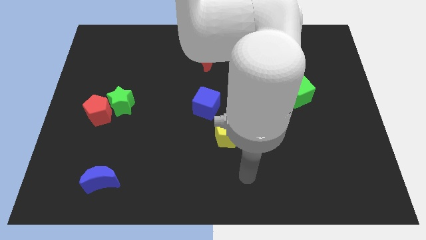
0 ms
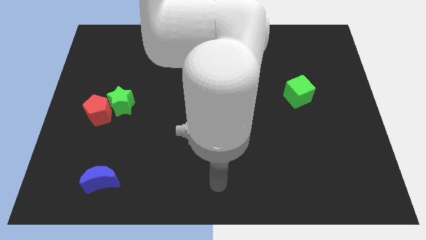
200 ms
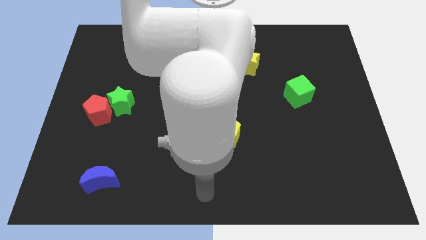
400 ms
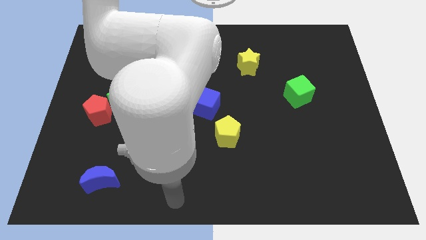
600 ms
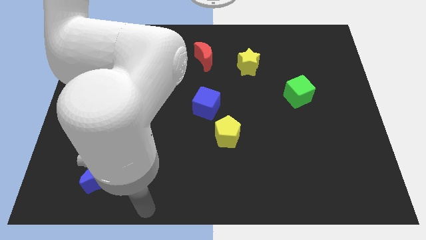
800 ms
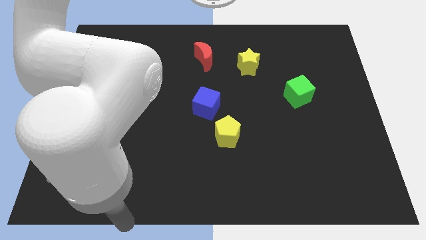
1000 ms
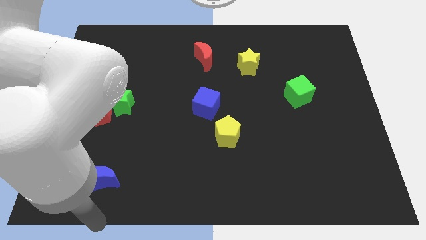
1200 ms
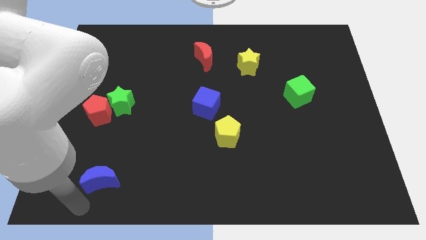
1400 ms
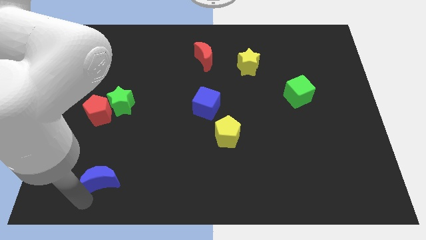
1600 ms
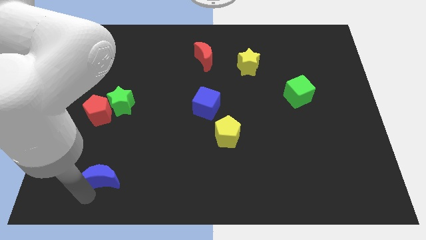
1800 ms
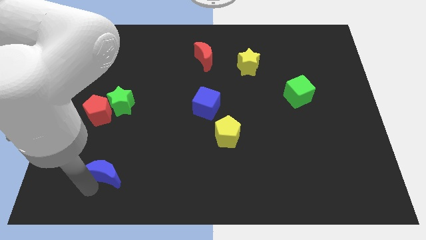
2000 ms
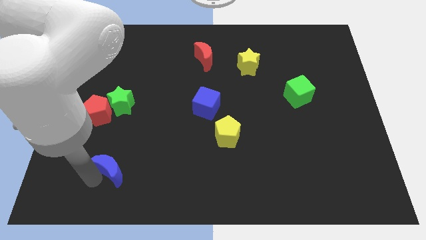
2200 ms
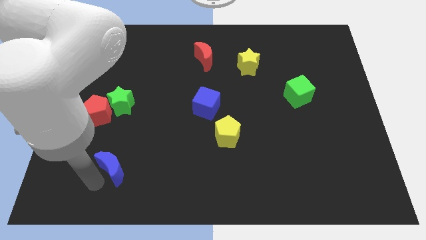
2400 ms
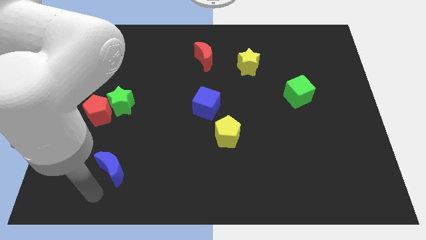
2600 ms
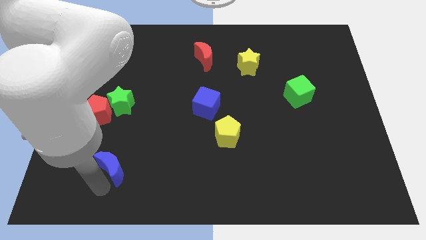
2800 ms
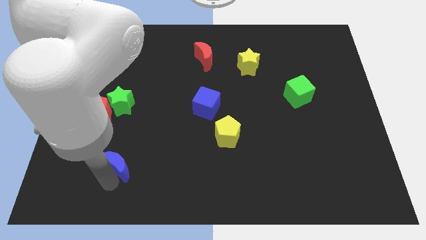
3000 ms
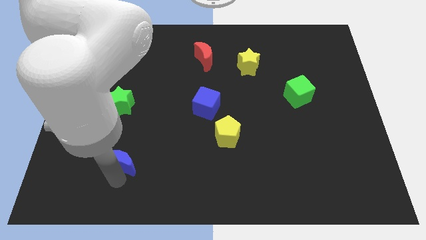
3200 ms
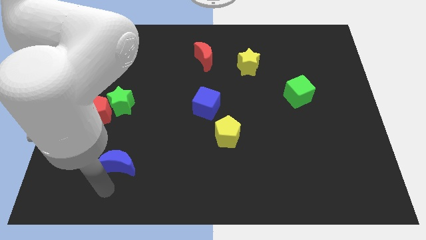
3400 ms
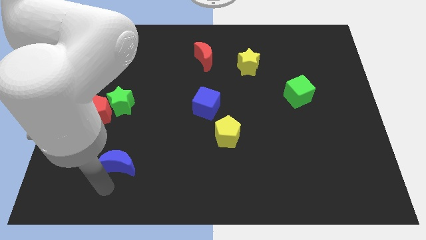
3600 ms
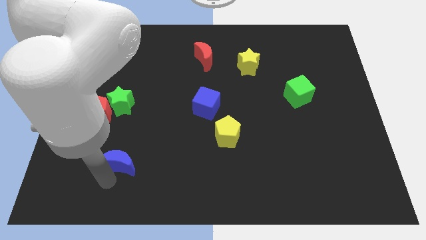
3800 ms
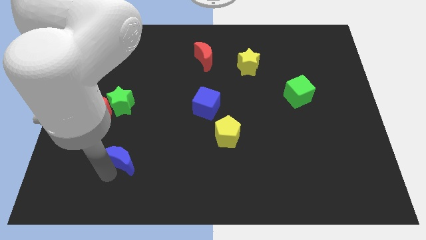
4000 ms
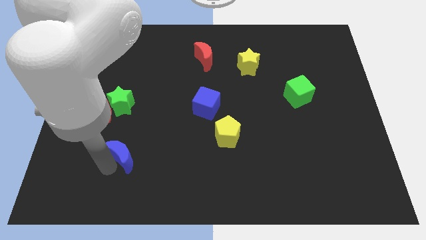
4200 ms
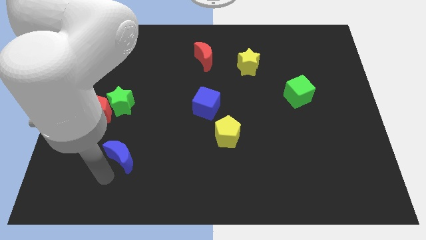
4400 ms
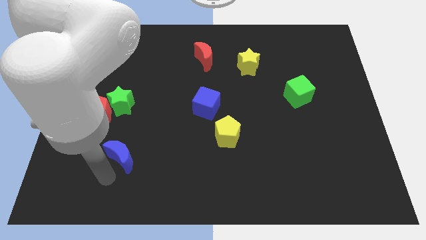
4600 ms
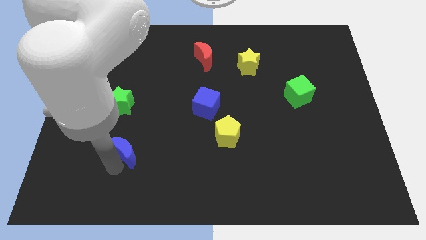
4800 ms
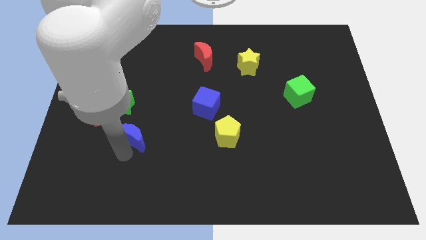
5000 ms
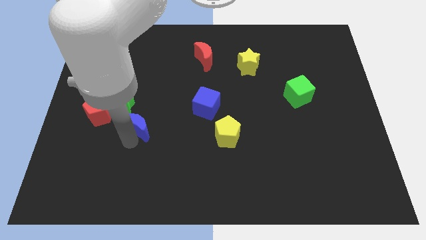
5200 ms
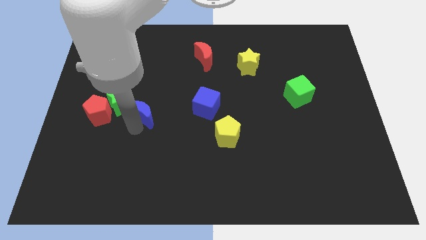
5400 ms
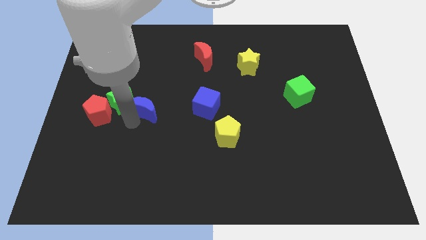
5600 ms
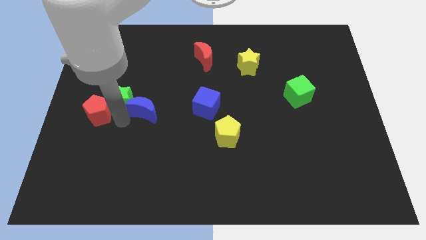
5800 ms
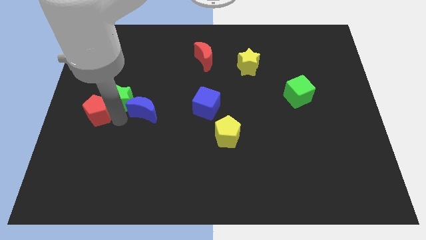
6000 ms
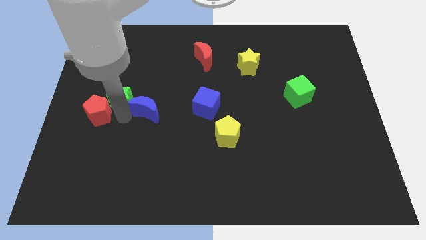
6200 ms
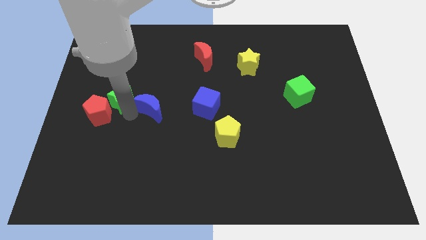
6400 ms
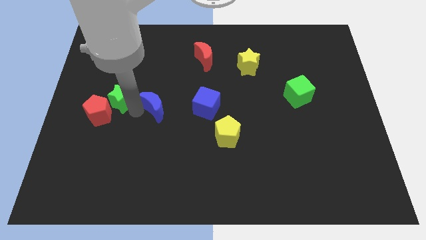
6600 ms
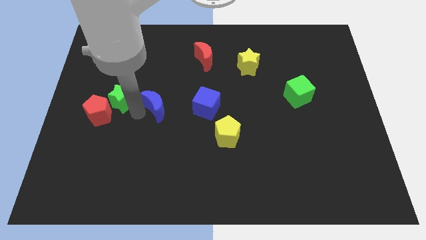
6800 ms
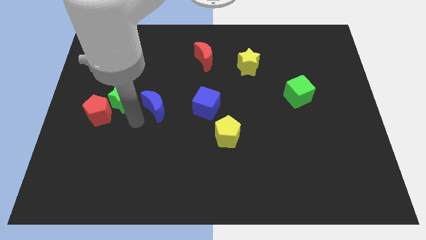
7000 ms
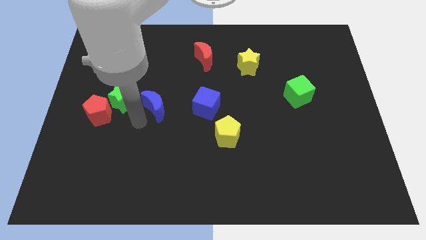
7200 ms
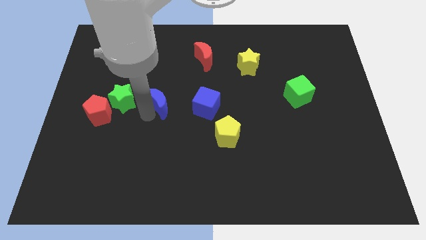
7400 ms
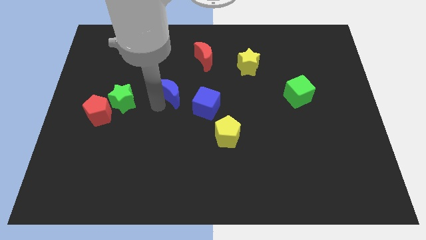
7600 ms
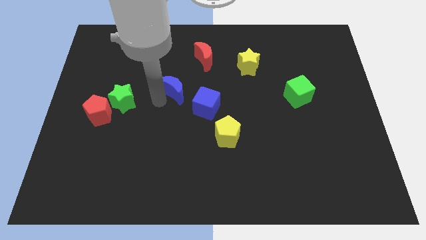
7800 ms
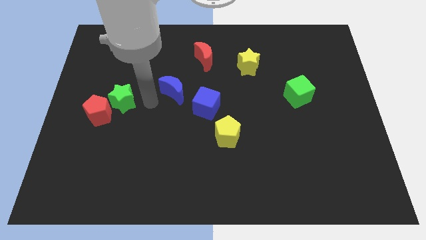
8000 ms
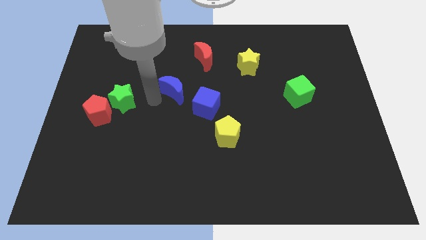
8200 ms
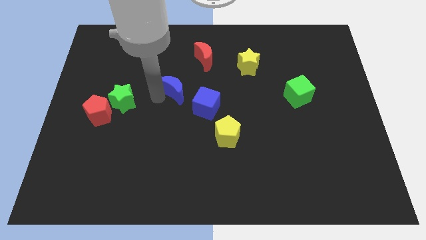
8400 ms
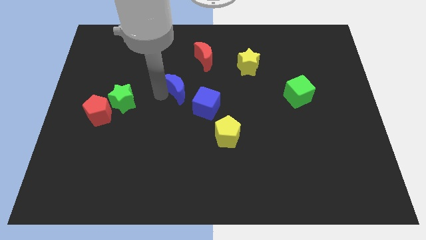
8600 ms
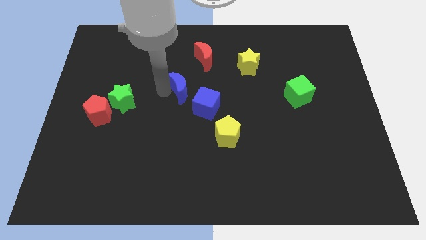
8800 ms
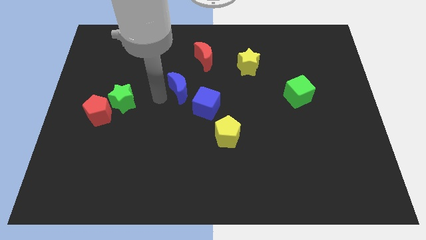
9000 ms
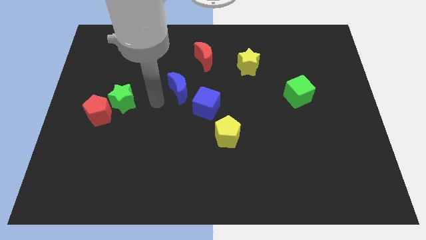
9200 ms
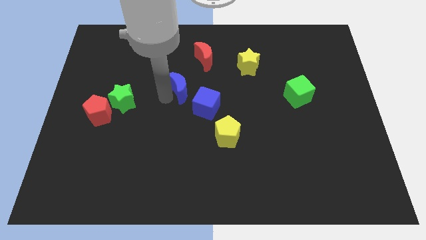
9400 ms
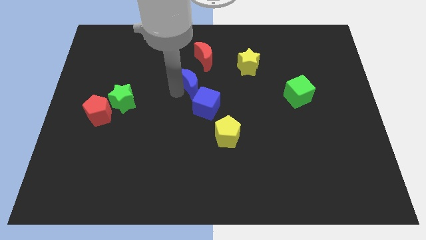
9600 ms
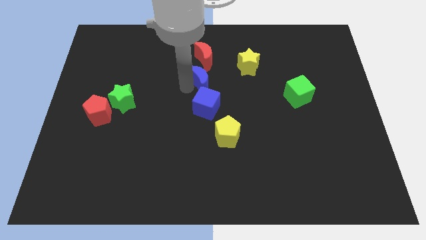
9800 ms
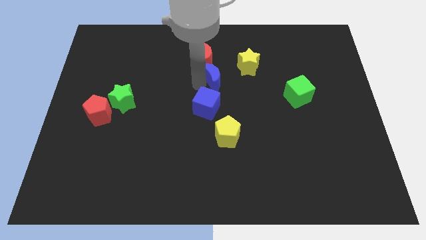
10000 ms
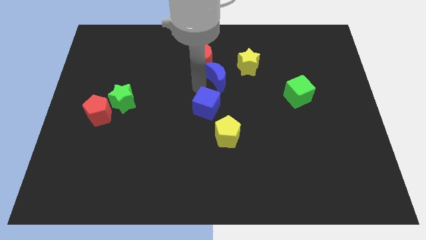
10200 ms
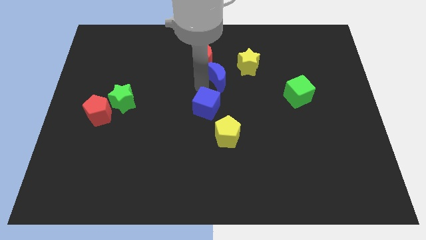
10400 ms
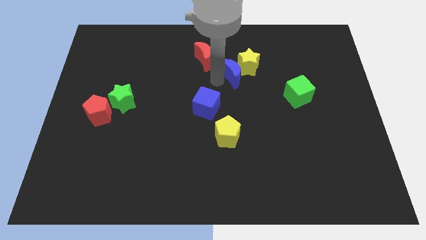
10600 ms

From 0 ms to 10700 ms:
put the blue moon next to the yellow star

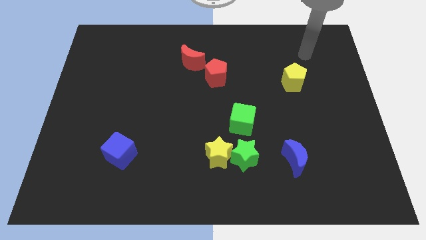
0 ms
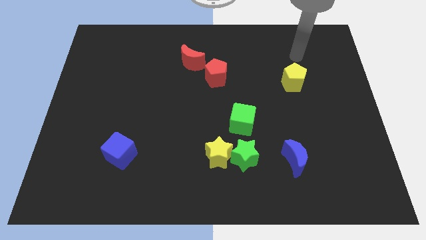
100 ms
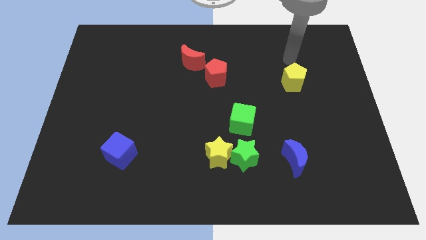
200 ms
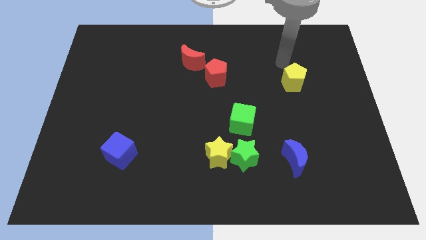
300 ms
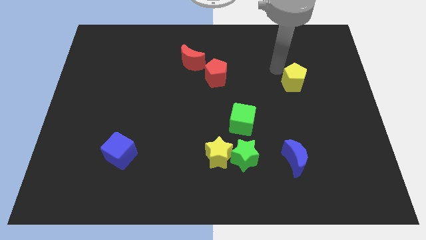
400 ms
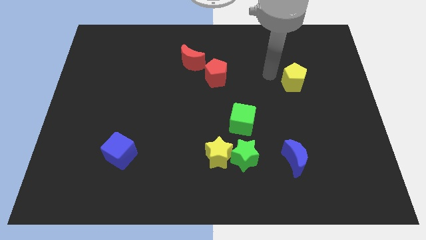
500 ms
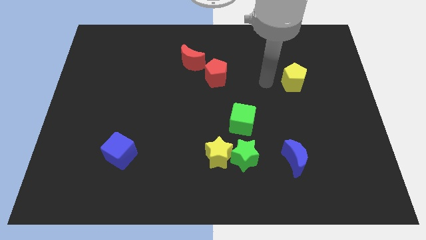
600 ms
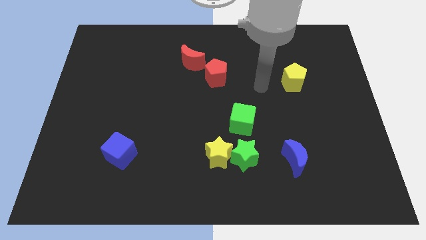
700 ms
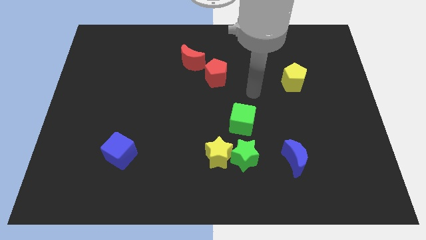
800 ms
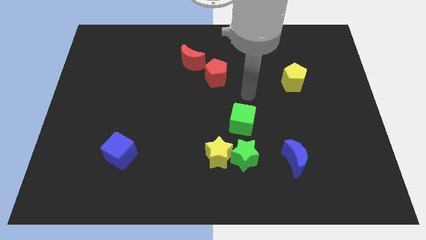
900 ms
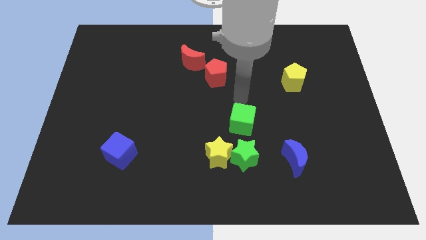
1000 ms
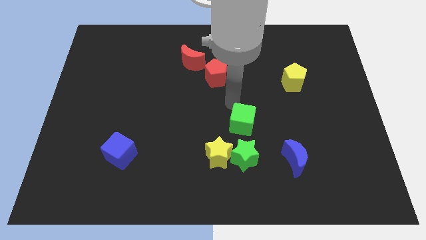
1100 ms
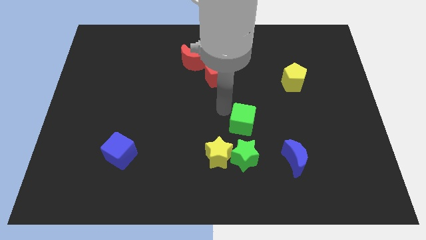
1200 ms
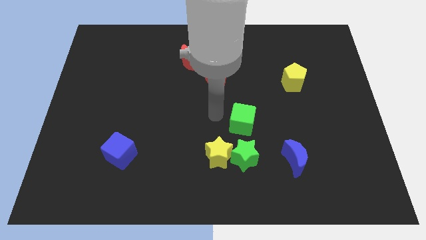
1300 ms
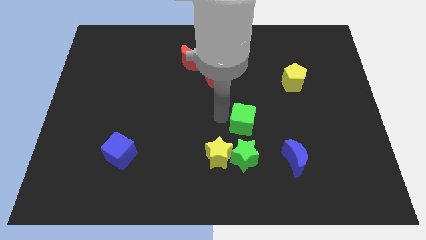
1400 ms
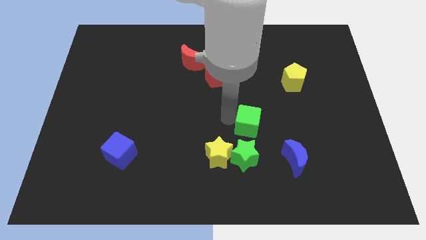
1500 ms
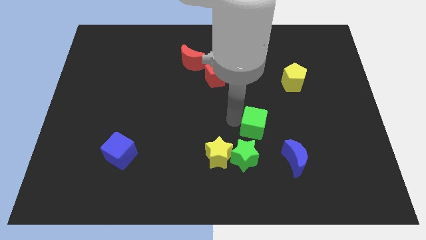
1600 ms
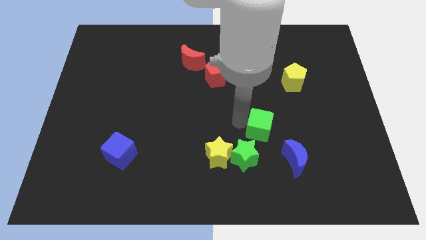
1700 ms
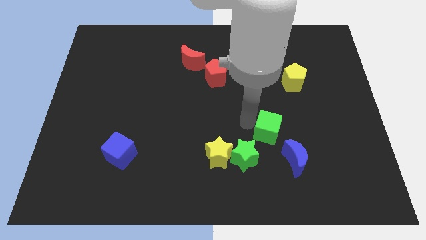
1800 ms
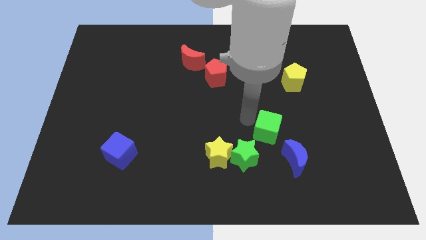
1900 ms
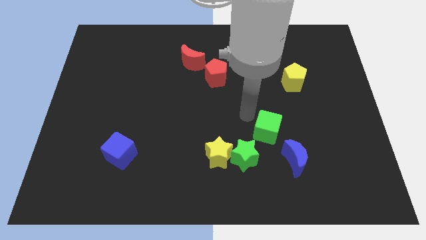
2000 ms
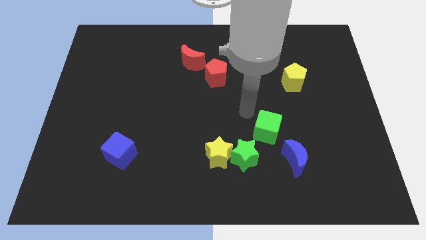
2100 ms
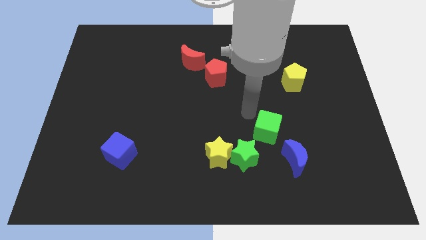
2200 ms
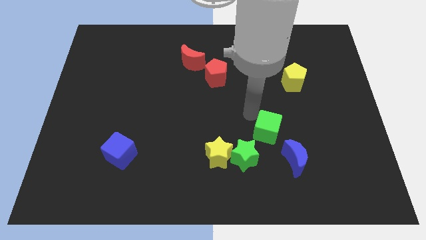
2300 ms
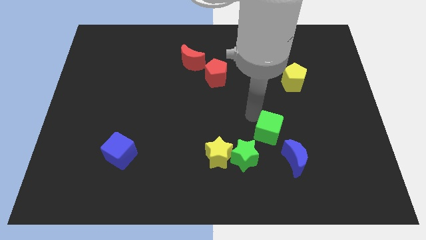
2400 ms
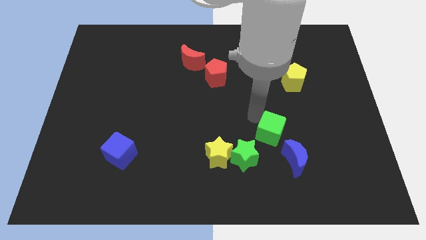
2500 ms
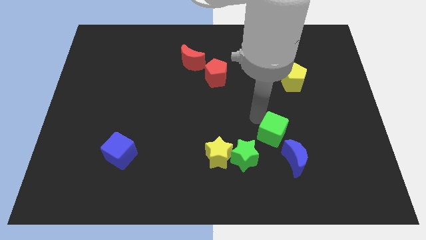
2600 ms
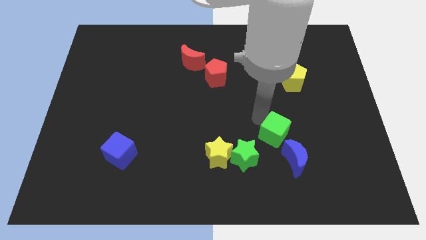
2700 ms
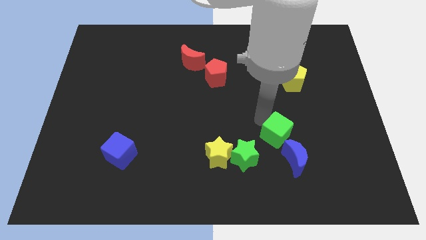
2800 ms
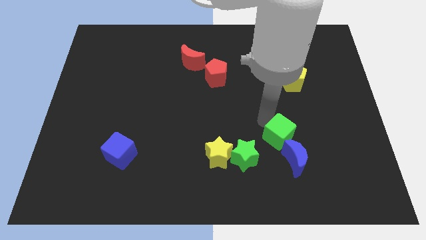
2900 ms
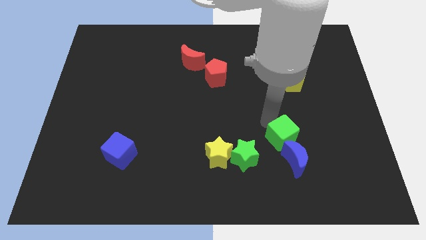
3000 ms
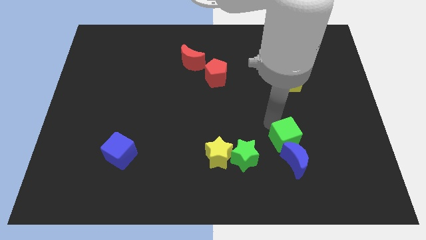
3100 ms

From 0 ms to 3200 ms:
push the green cube to the blue moon
